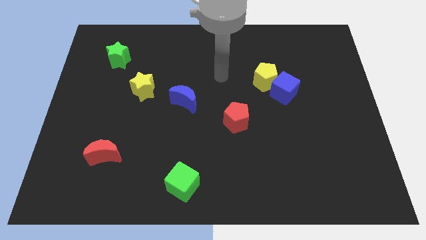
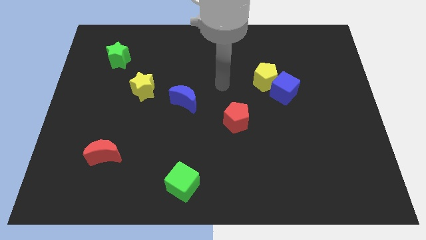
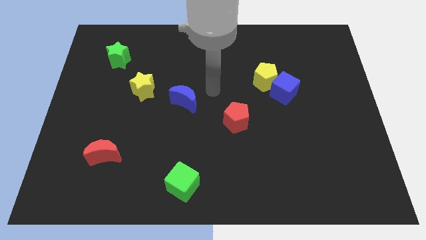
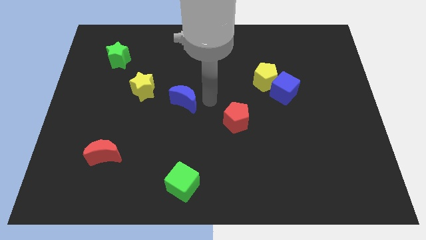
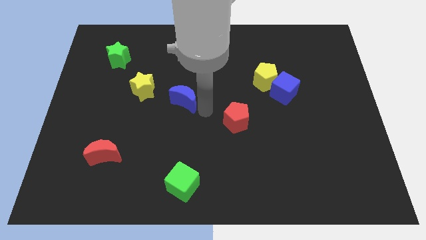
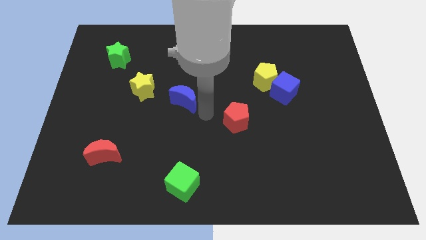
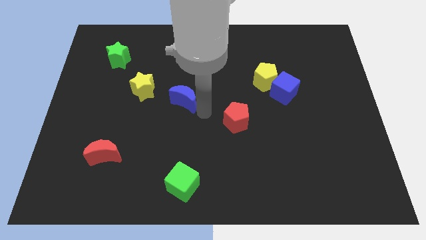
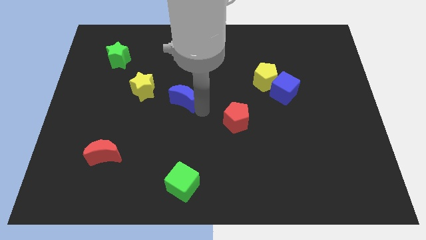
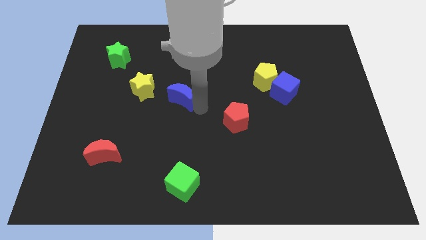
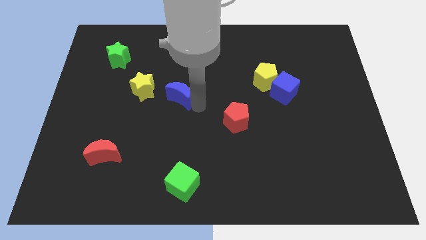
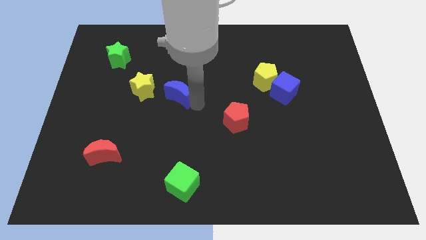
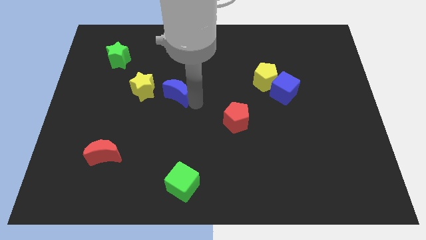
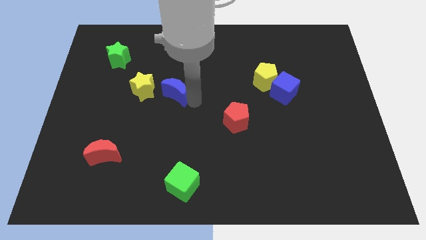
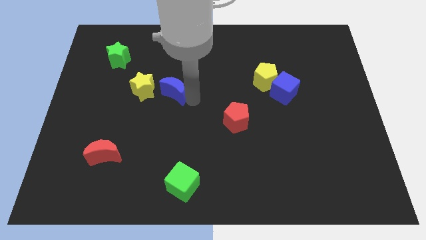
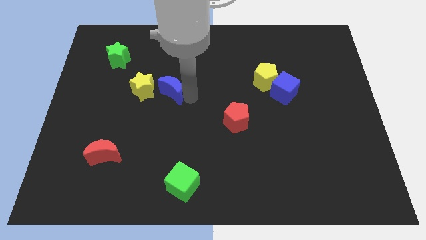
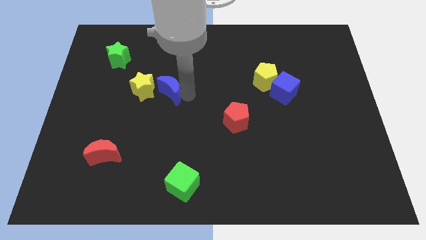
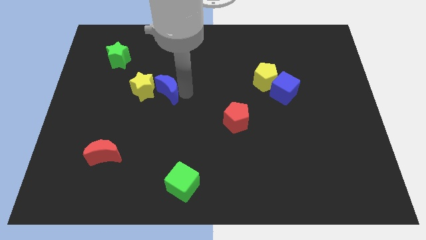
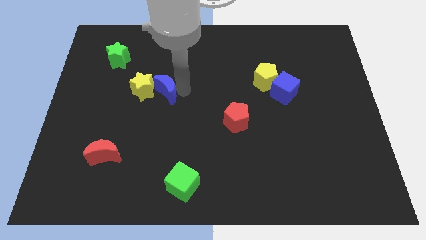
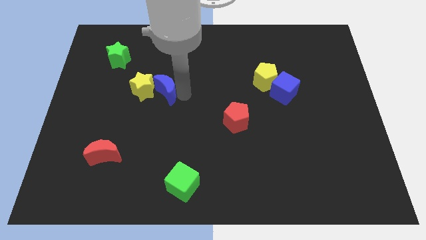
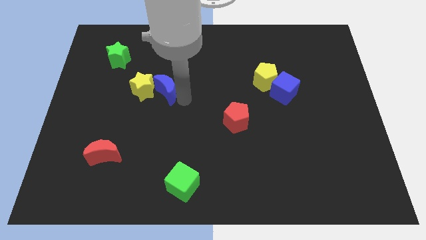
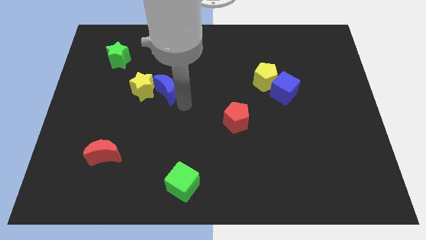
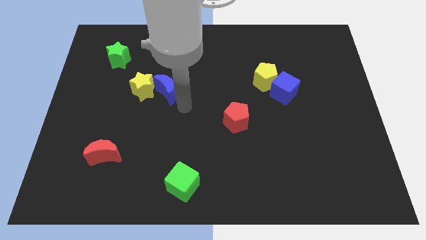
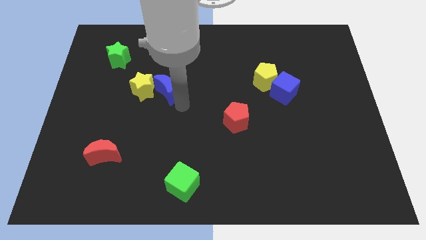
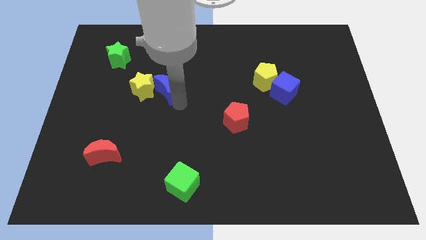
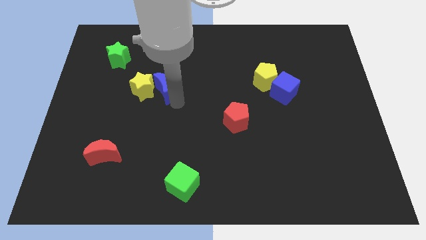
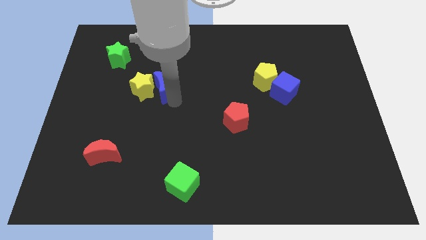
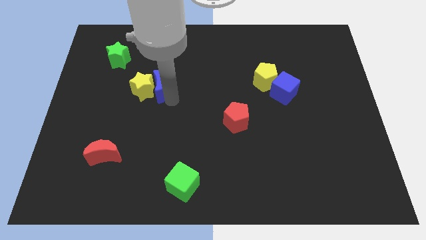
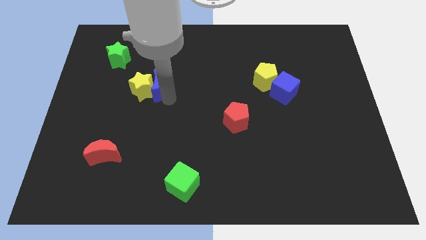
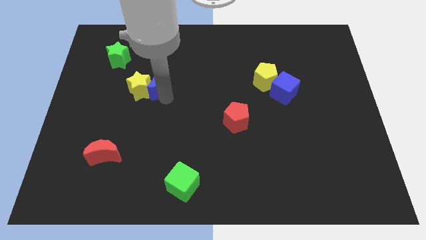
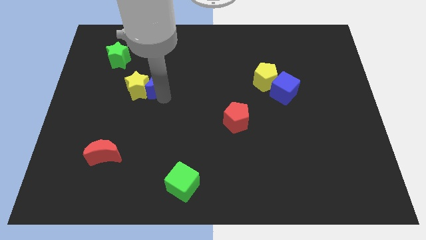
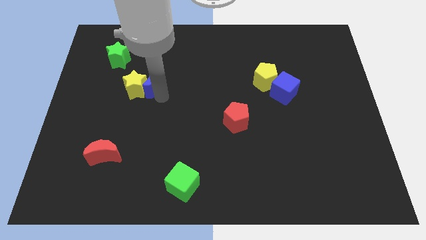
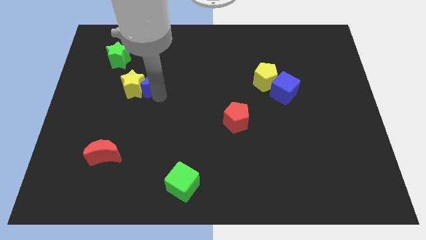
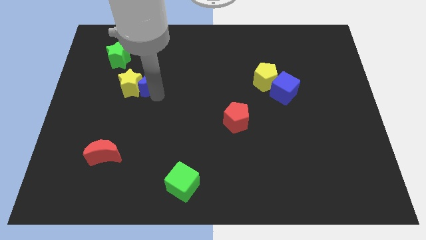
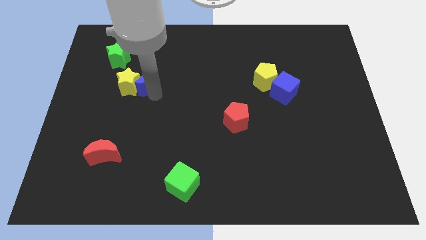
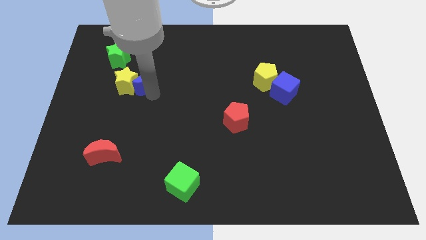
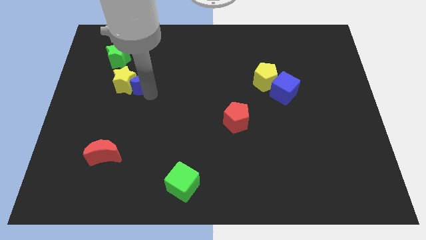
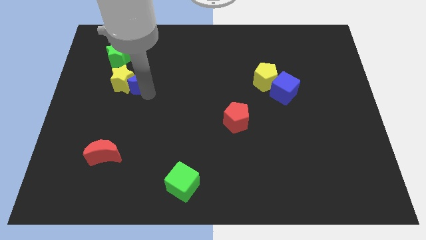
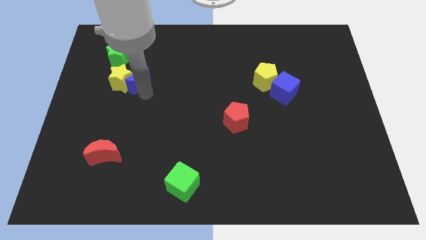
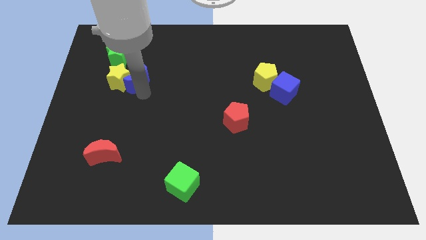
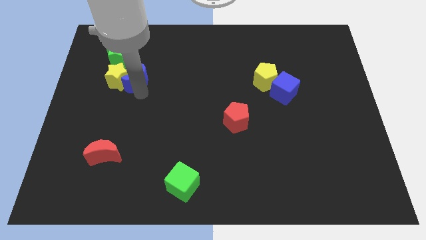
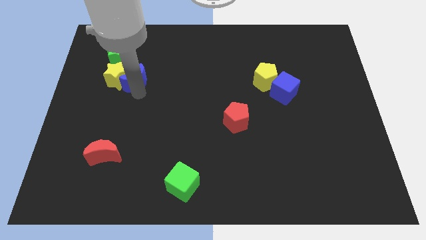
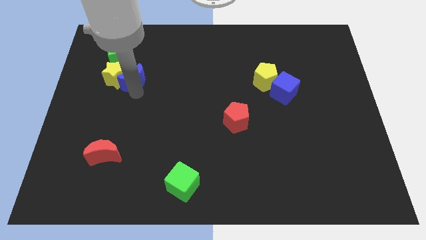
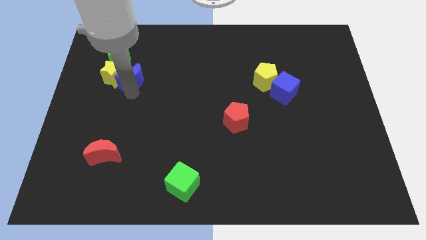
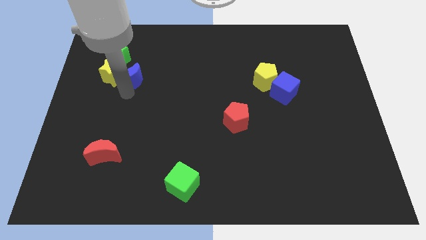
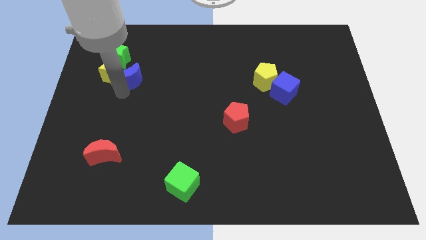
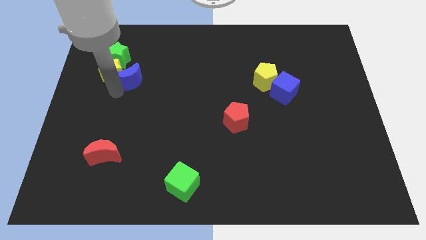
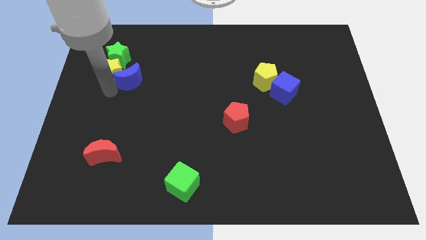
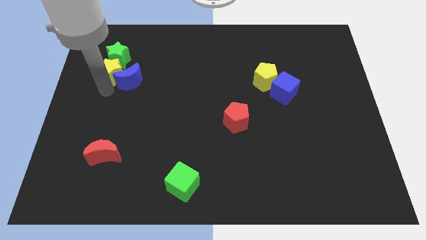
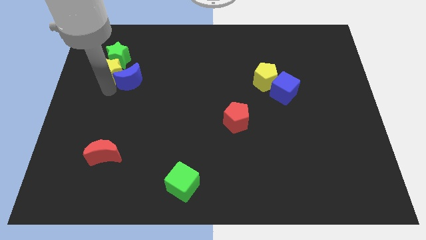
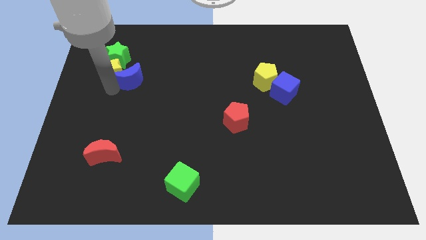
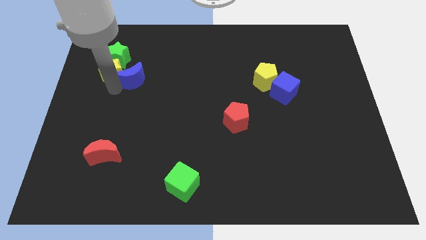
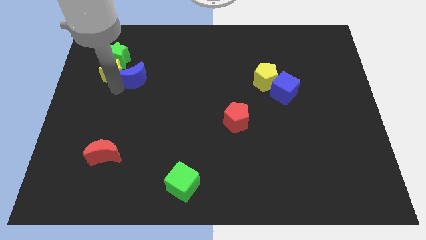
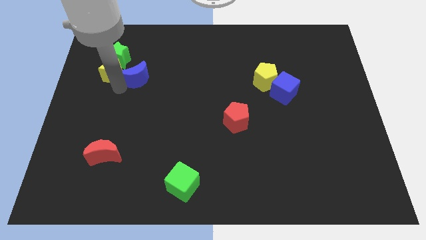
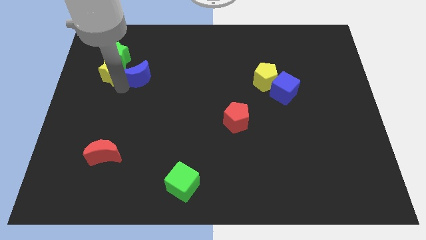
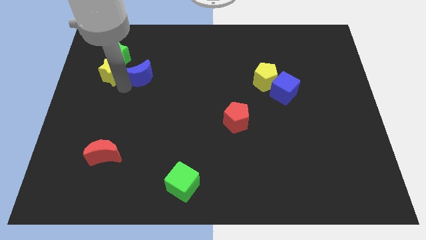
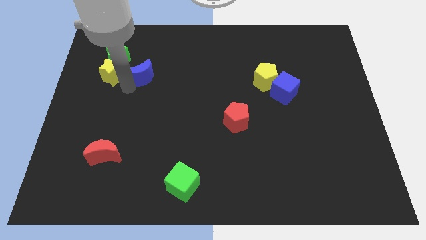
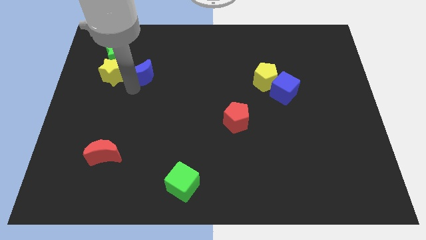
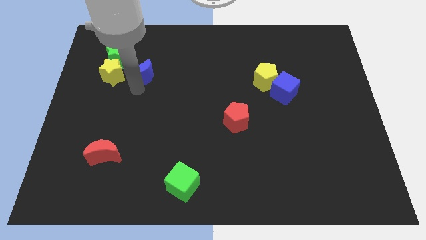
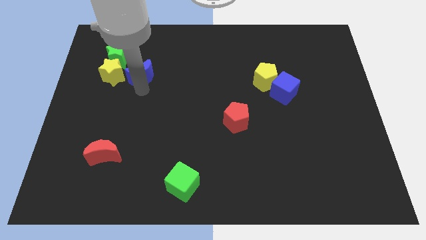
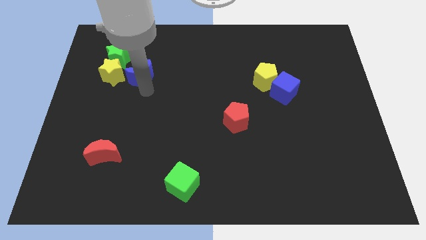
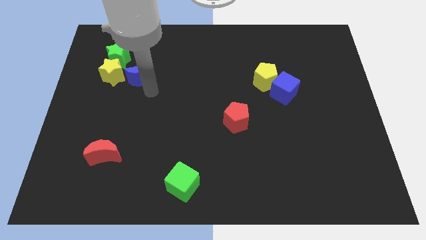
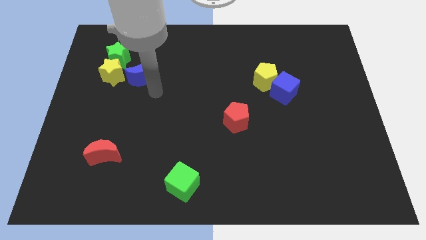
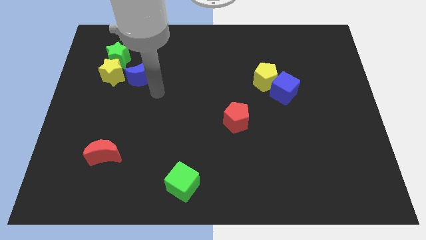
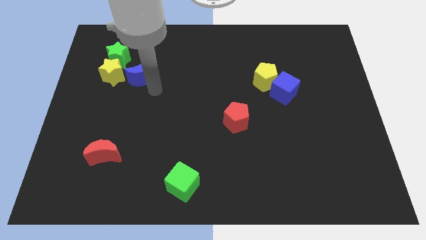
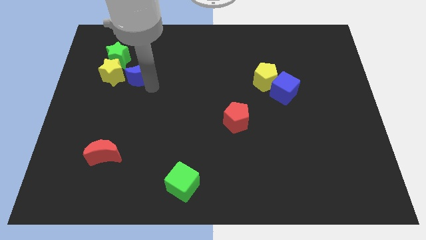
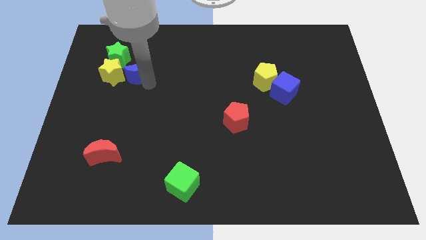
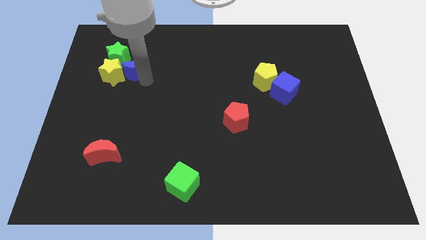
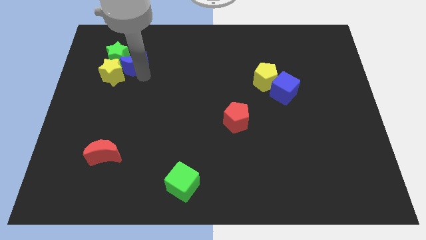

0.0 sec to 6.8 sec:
move the blue moon close to the green star

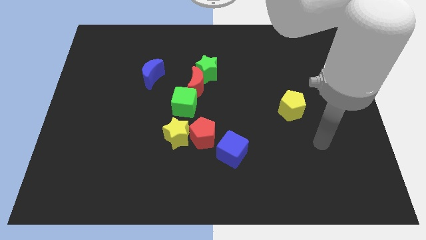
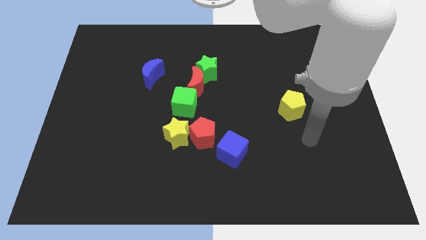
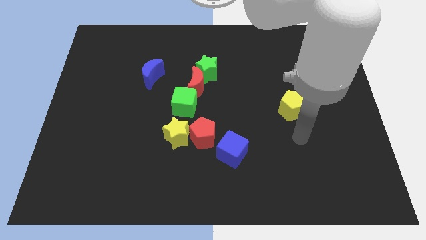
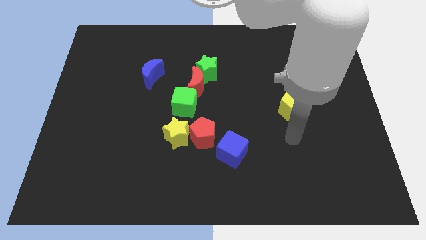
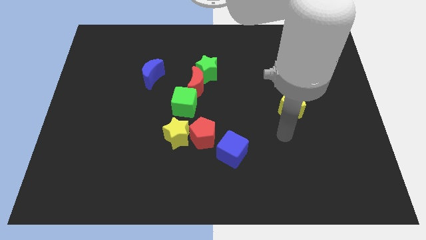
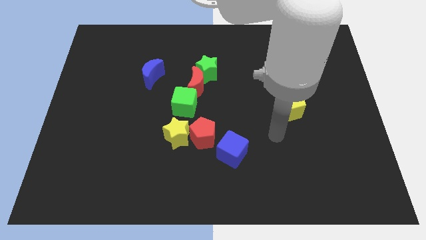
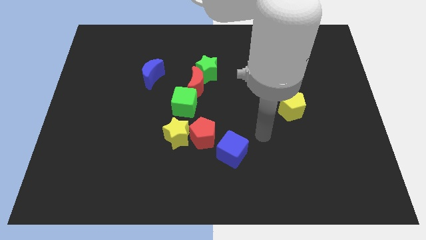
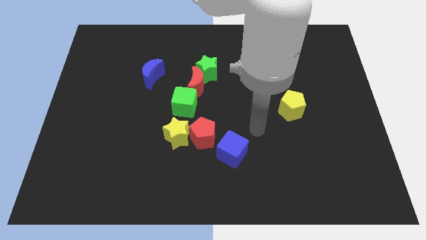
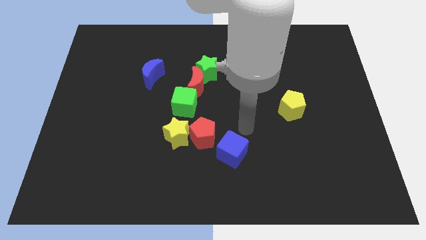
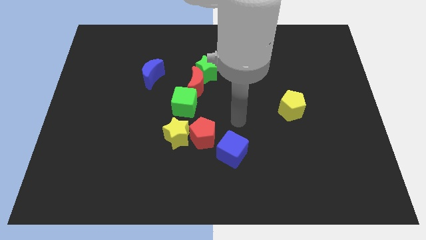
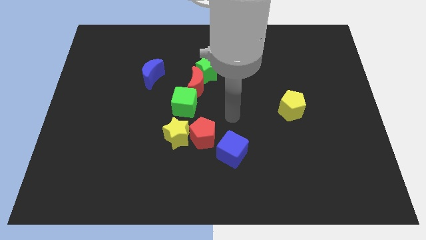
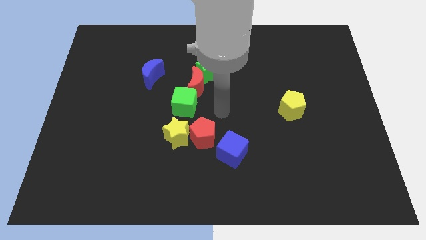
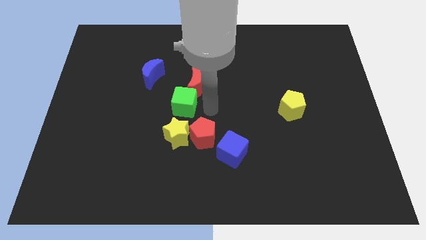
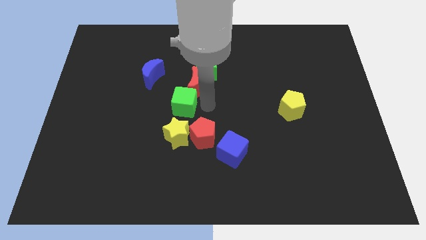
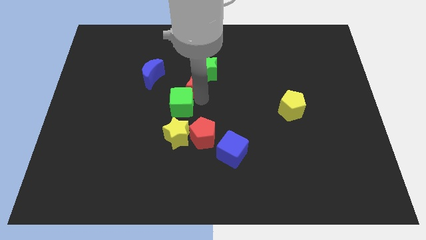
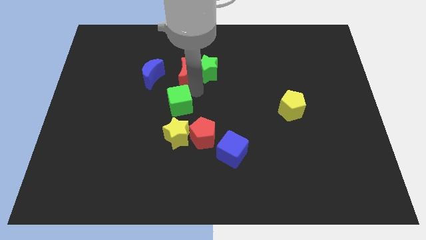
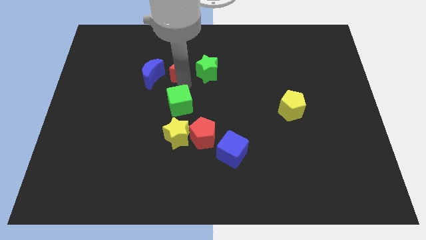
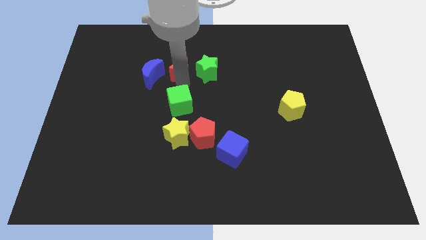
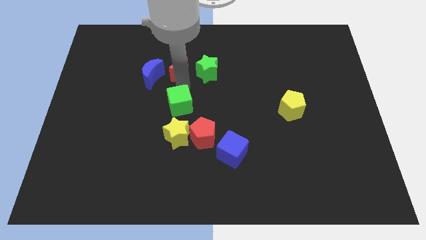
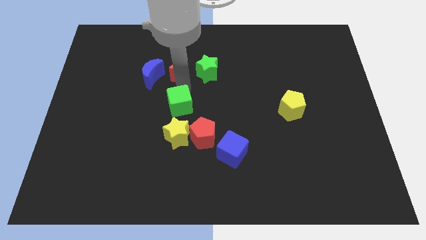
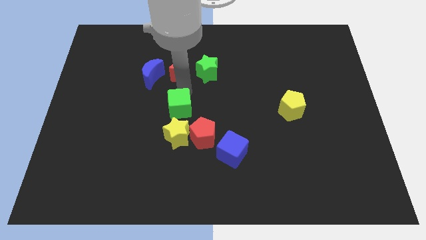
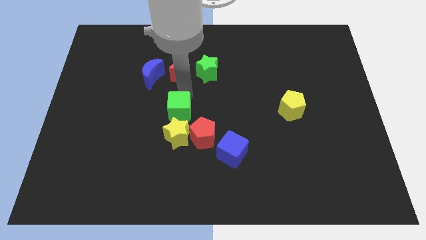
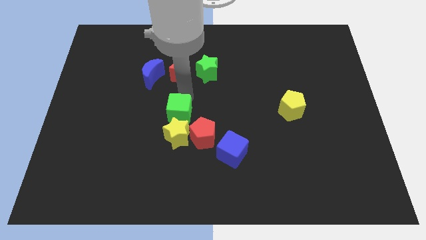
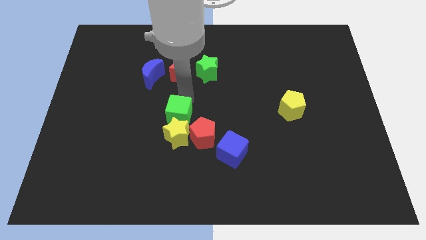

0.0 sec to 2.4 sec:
slide the green cube to the yellow star
